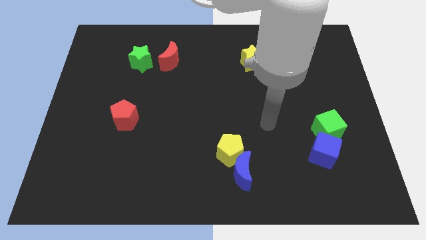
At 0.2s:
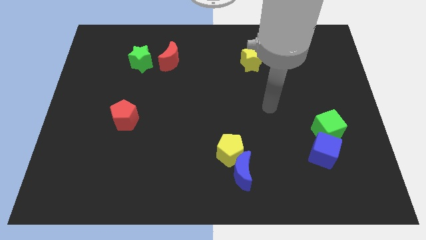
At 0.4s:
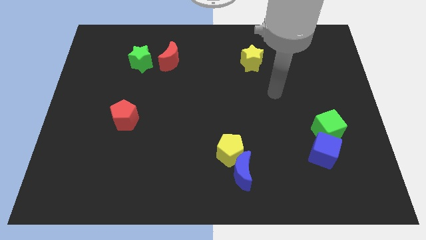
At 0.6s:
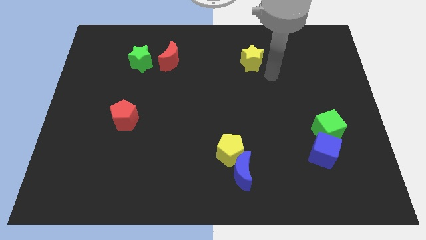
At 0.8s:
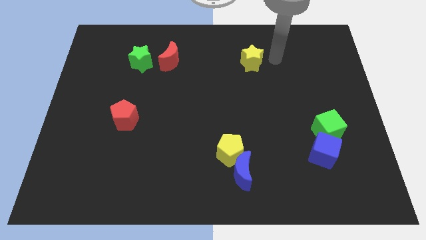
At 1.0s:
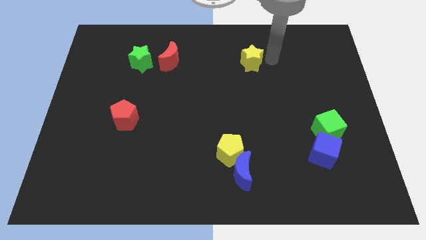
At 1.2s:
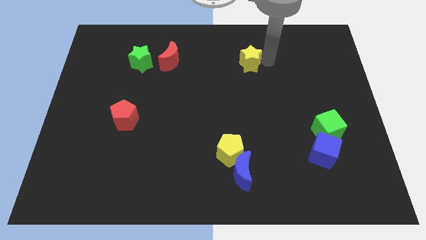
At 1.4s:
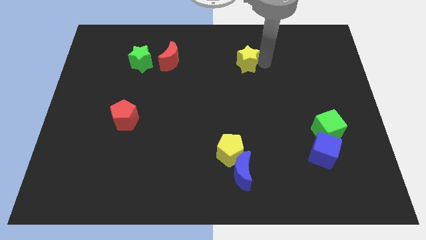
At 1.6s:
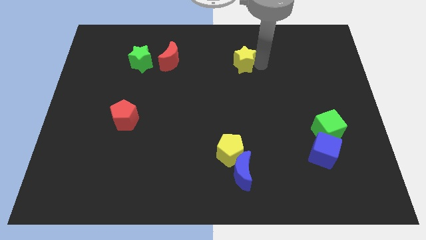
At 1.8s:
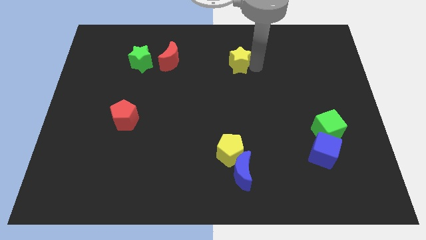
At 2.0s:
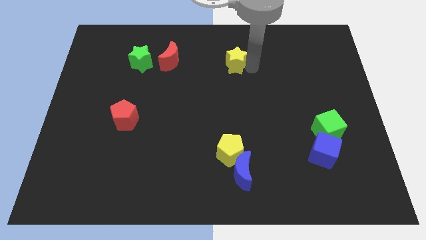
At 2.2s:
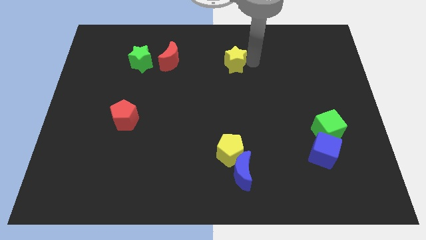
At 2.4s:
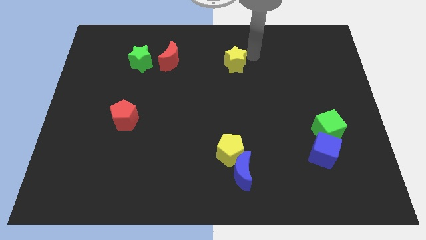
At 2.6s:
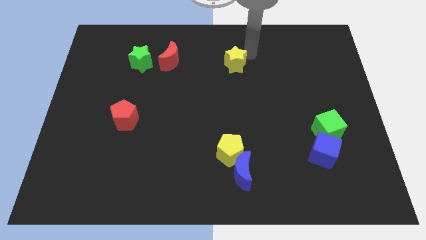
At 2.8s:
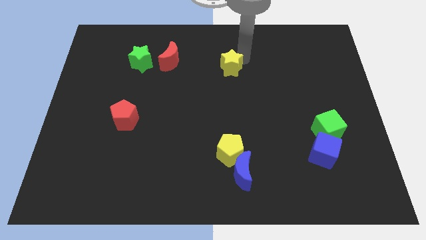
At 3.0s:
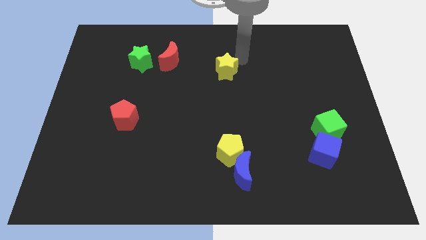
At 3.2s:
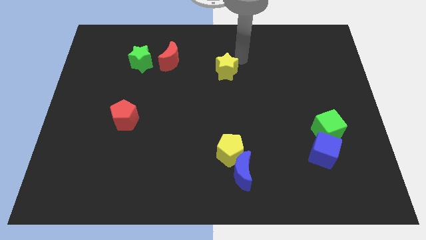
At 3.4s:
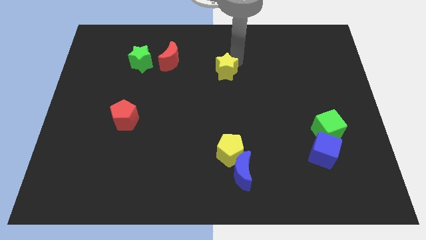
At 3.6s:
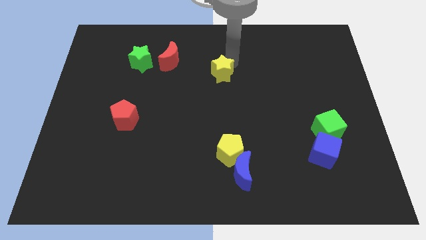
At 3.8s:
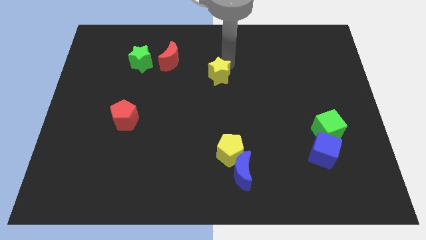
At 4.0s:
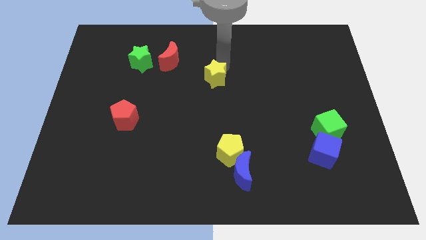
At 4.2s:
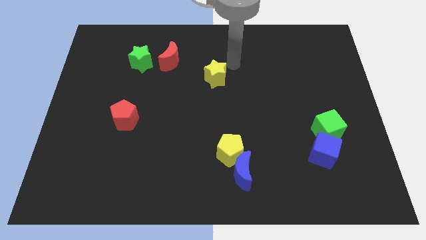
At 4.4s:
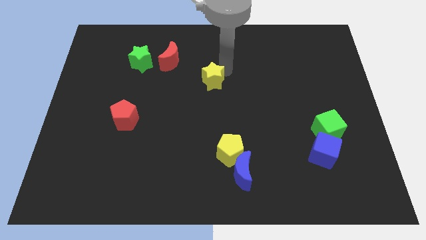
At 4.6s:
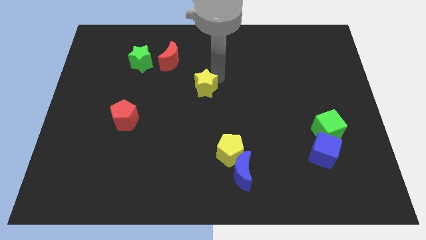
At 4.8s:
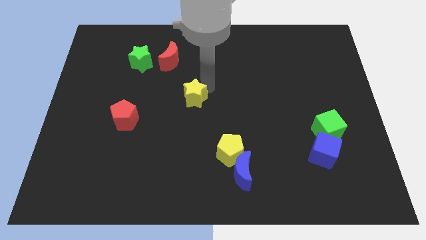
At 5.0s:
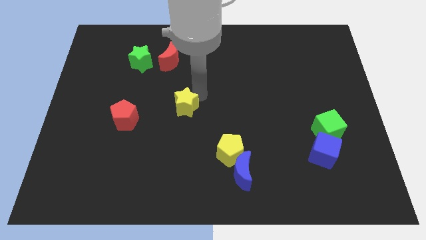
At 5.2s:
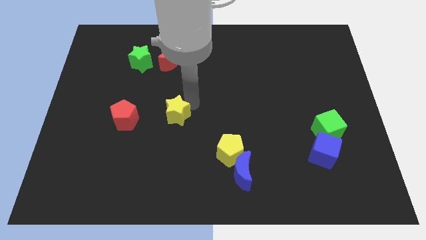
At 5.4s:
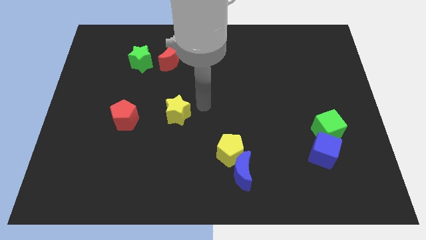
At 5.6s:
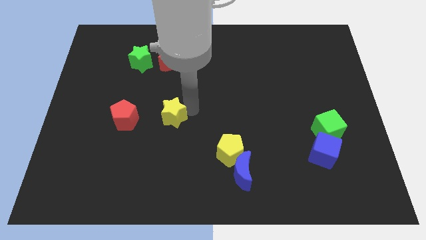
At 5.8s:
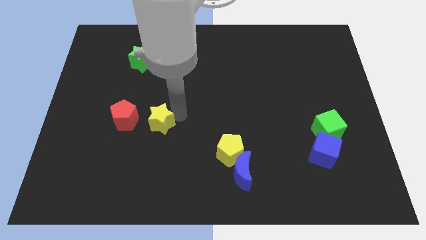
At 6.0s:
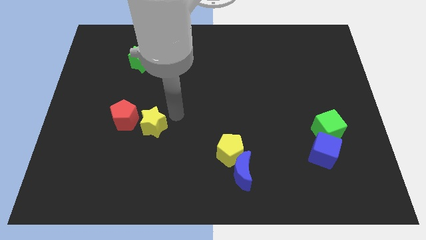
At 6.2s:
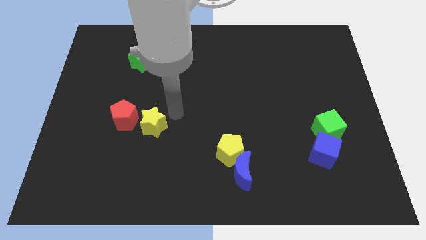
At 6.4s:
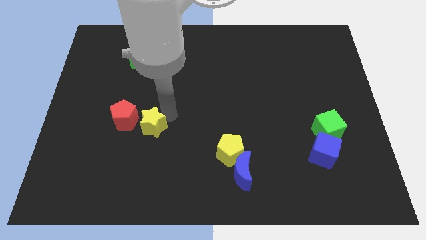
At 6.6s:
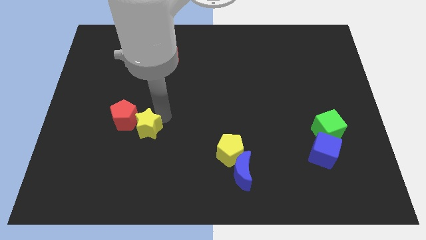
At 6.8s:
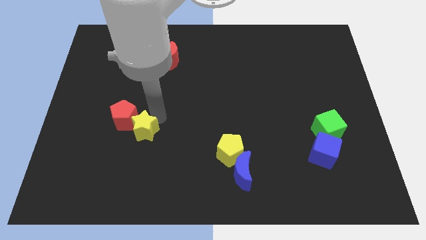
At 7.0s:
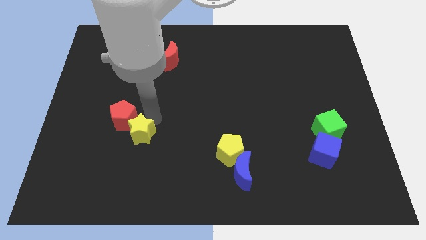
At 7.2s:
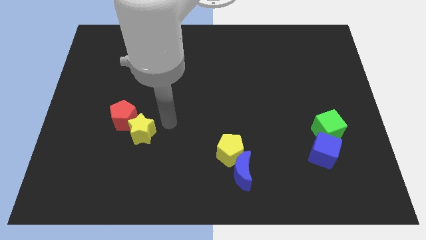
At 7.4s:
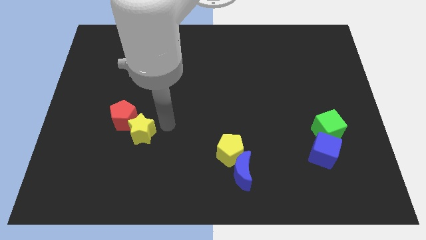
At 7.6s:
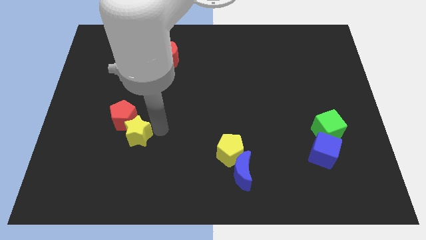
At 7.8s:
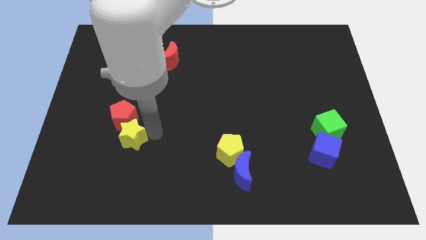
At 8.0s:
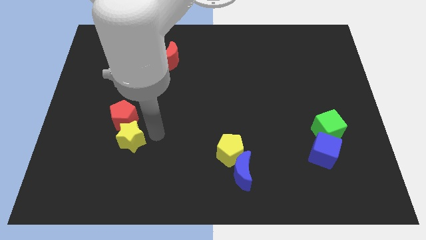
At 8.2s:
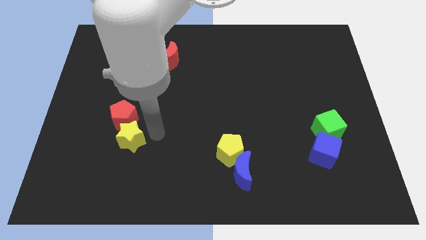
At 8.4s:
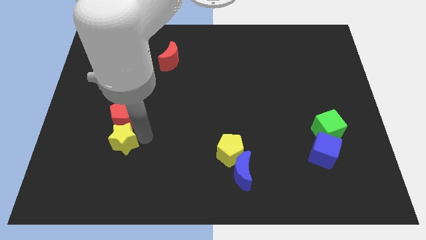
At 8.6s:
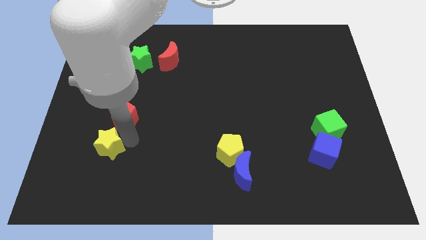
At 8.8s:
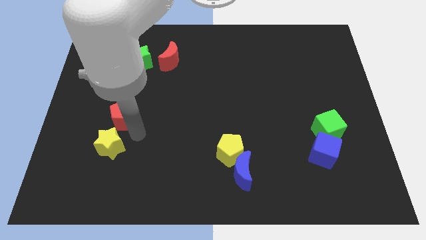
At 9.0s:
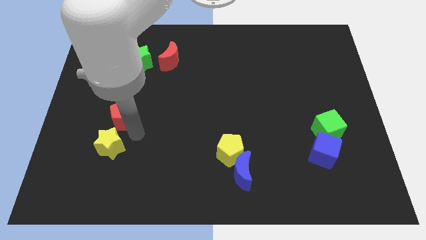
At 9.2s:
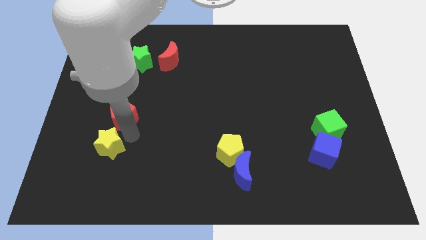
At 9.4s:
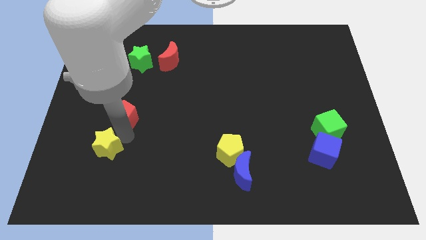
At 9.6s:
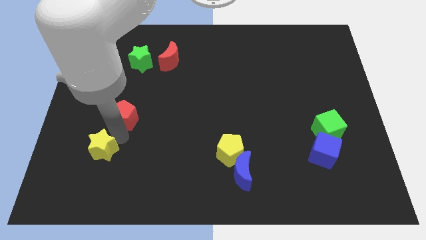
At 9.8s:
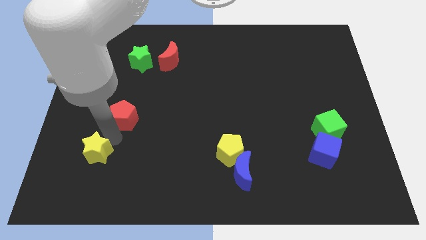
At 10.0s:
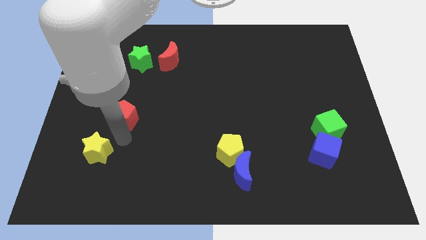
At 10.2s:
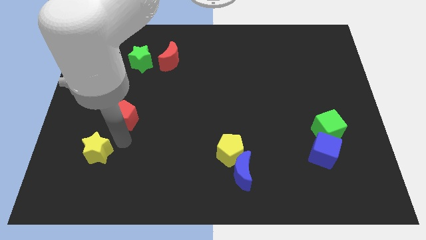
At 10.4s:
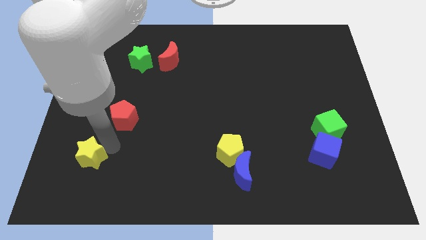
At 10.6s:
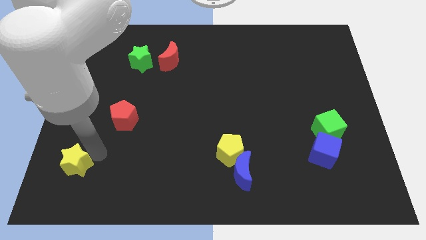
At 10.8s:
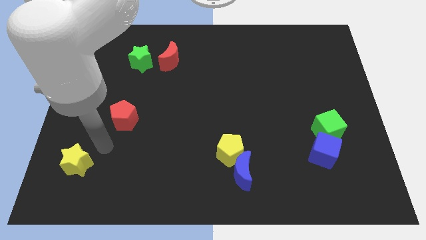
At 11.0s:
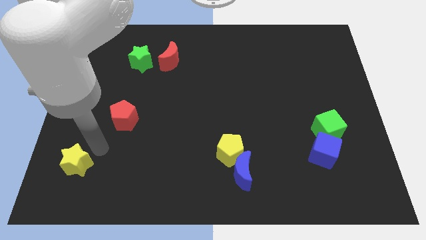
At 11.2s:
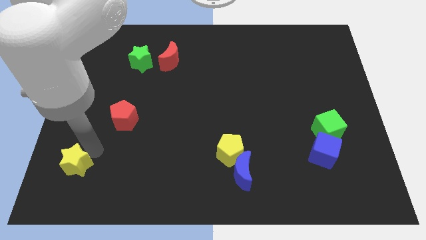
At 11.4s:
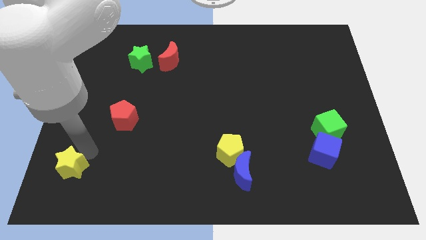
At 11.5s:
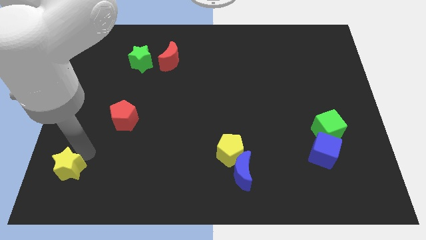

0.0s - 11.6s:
move the yellow star to the bottom left

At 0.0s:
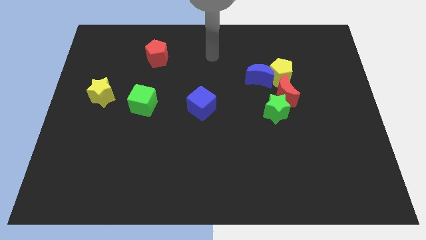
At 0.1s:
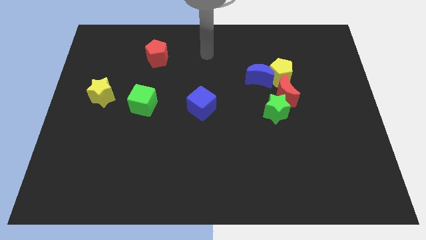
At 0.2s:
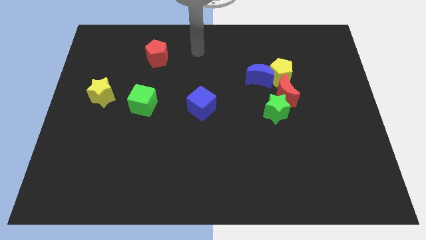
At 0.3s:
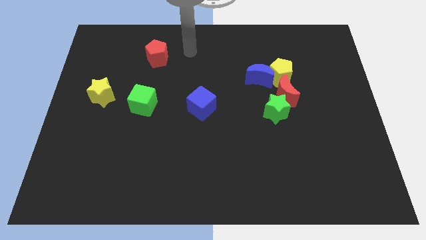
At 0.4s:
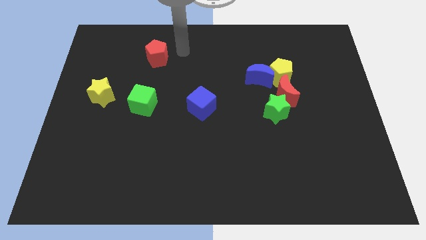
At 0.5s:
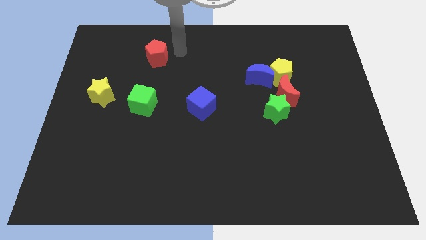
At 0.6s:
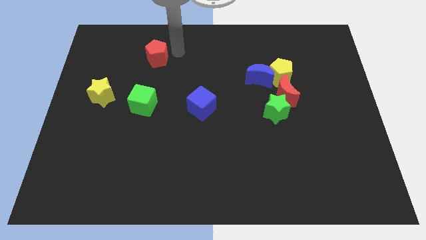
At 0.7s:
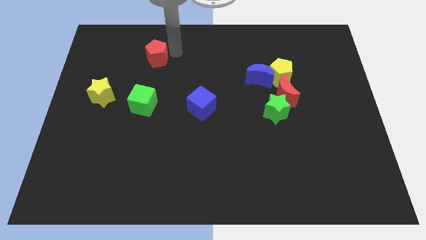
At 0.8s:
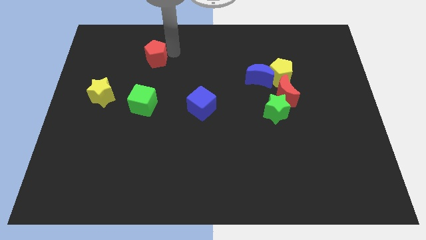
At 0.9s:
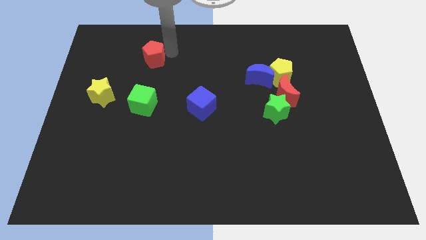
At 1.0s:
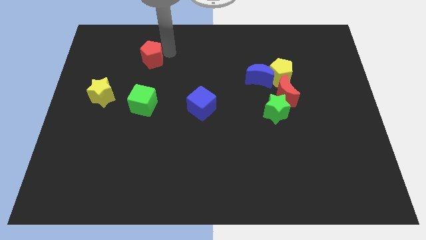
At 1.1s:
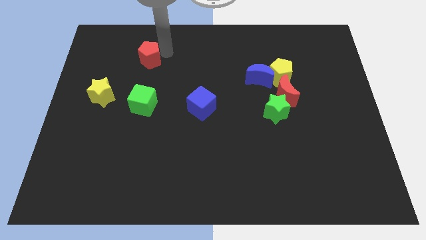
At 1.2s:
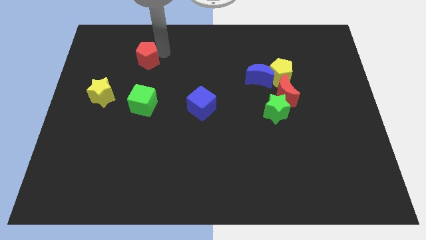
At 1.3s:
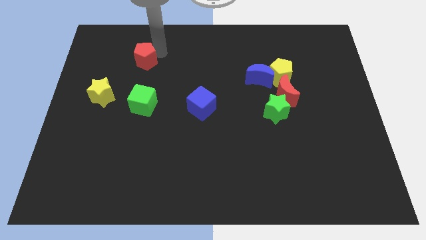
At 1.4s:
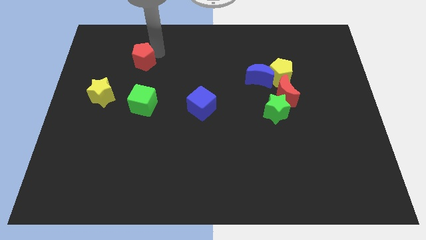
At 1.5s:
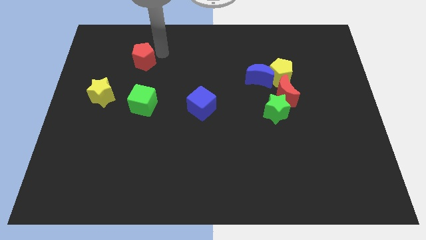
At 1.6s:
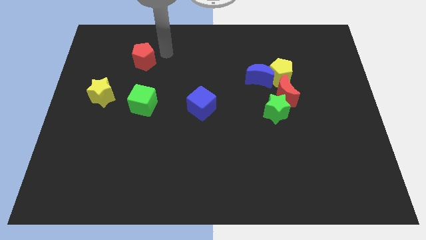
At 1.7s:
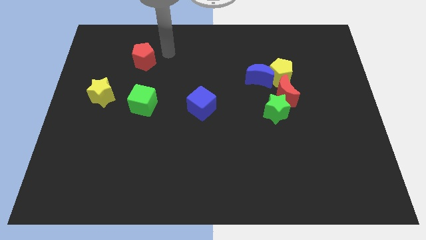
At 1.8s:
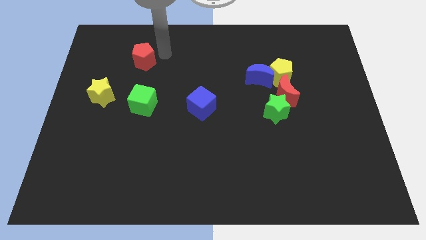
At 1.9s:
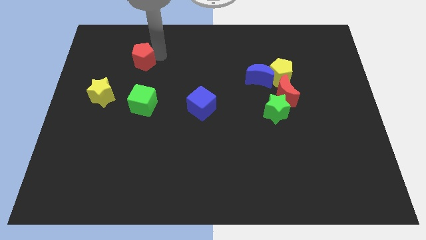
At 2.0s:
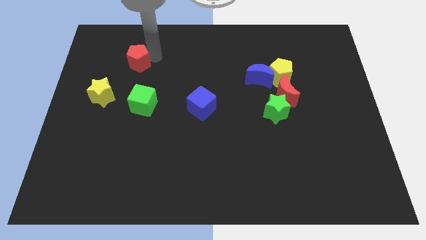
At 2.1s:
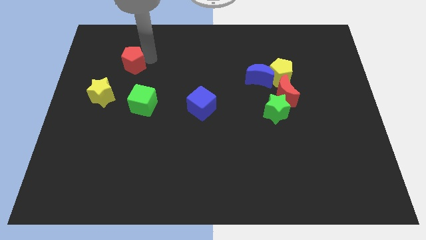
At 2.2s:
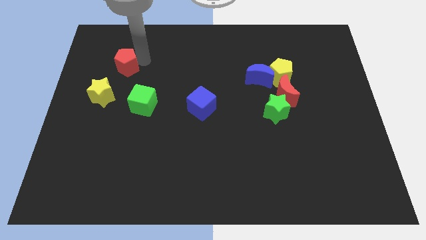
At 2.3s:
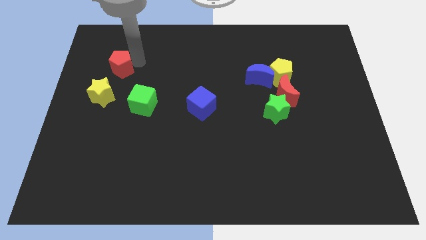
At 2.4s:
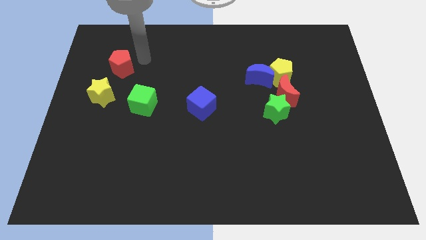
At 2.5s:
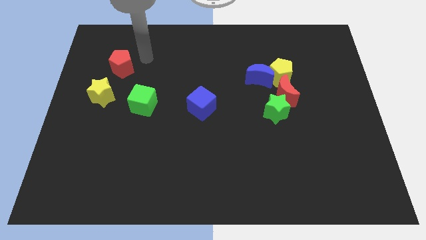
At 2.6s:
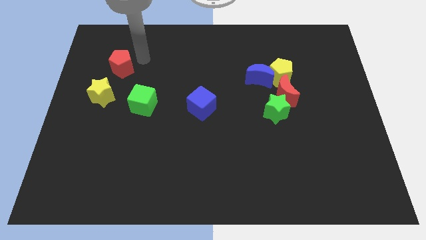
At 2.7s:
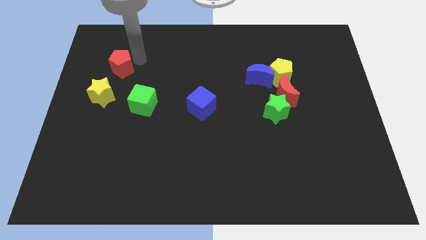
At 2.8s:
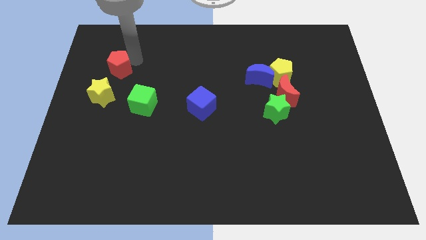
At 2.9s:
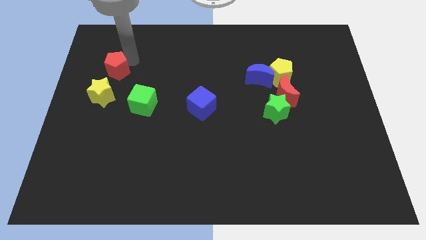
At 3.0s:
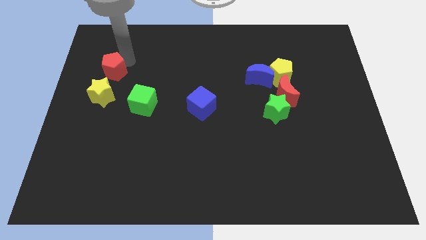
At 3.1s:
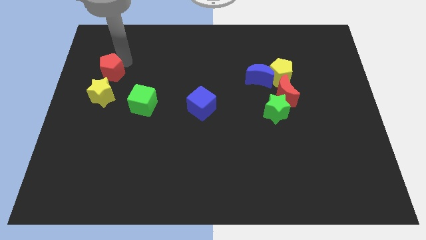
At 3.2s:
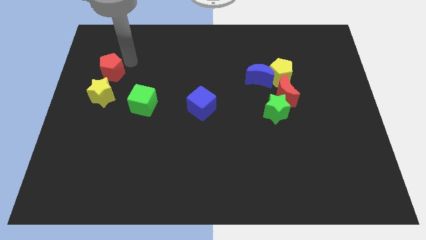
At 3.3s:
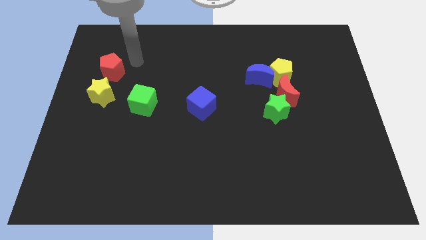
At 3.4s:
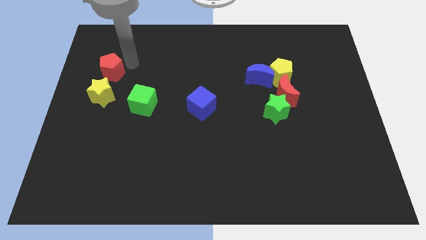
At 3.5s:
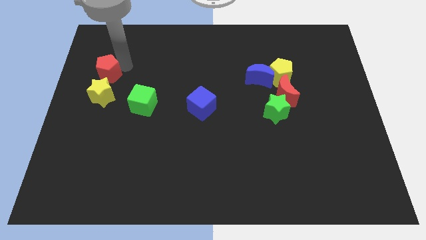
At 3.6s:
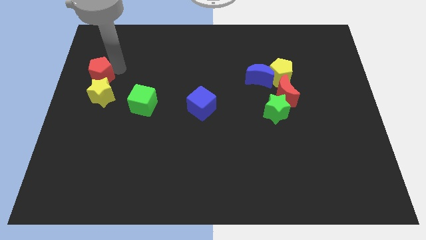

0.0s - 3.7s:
push the red pentagon to the left side
